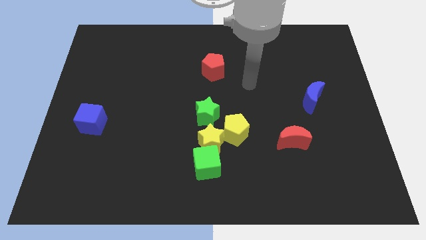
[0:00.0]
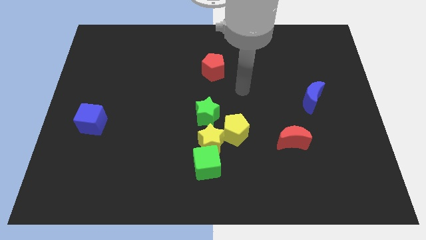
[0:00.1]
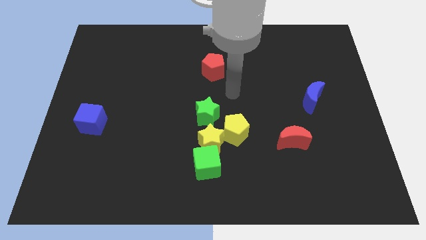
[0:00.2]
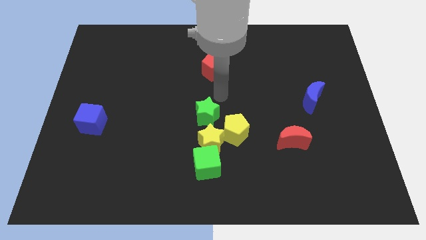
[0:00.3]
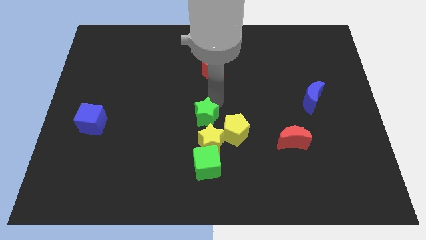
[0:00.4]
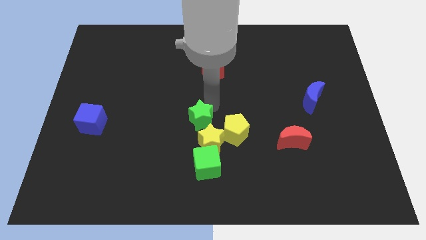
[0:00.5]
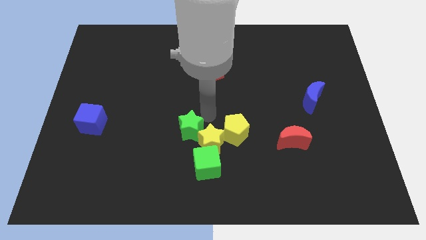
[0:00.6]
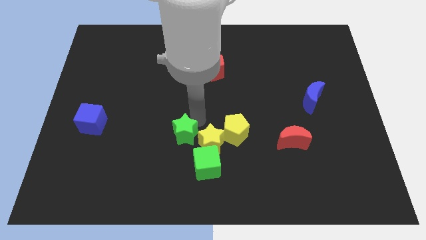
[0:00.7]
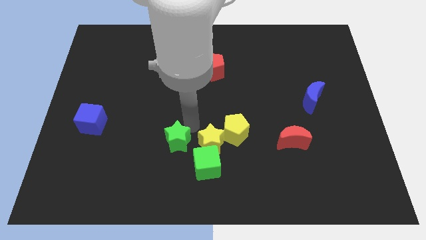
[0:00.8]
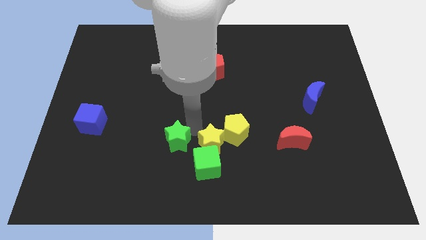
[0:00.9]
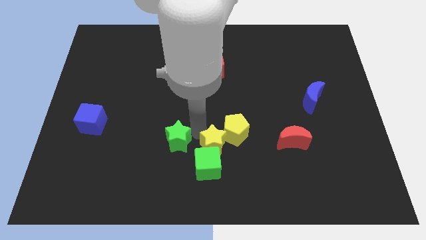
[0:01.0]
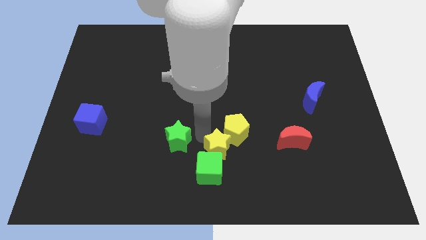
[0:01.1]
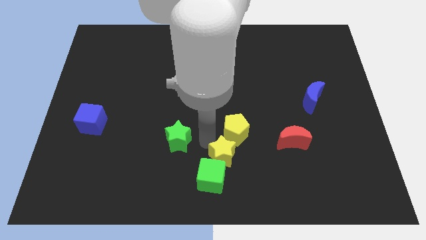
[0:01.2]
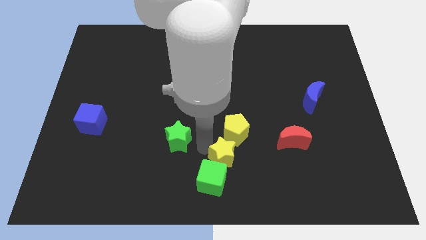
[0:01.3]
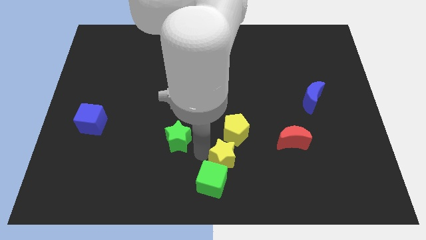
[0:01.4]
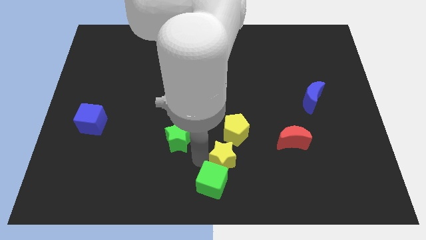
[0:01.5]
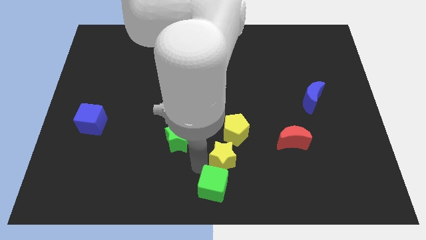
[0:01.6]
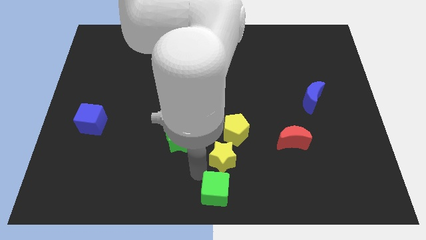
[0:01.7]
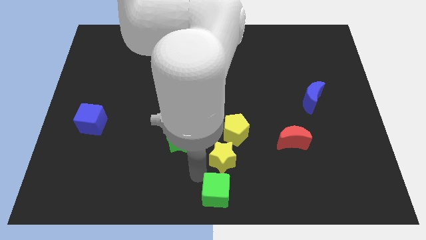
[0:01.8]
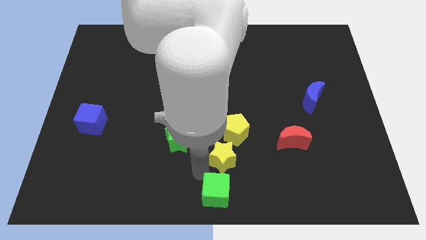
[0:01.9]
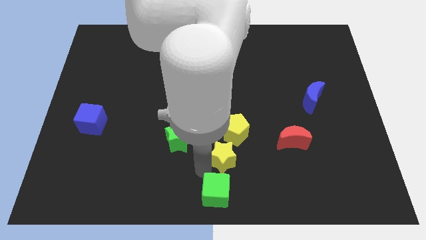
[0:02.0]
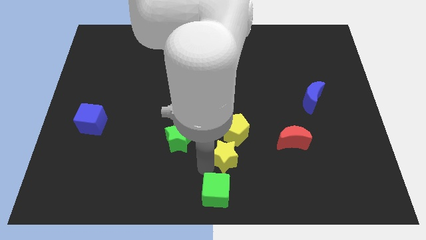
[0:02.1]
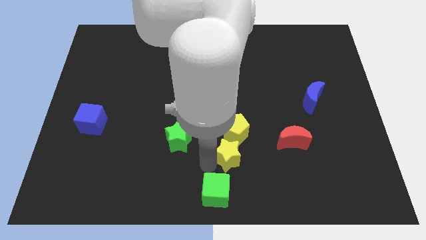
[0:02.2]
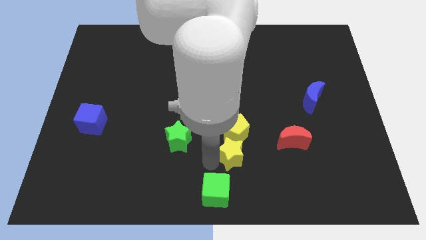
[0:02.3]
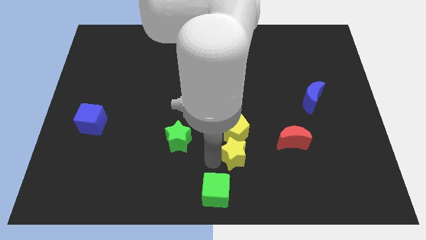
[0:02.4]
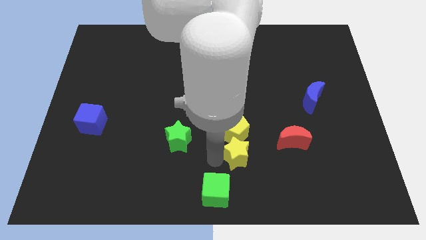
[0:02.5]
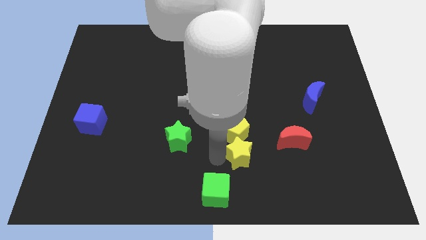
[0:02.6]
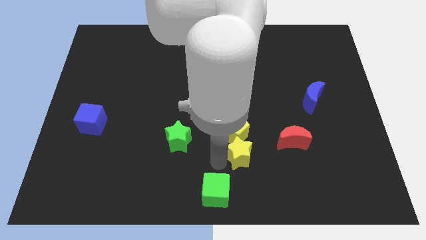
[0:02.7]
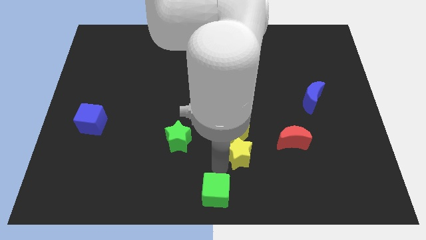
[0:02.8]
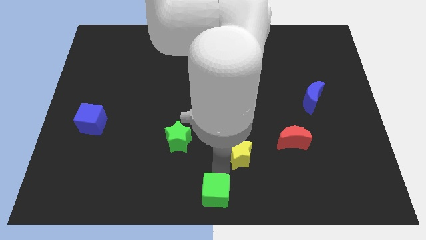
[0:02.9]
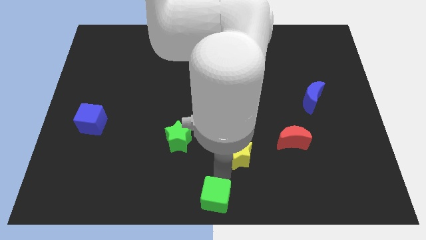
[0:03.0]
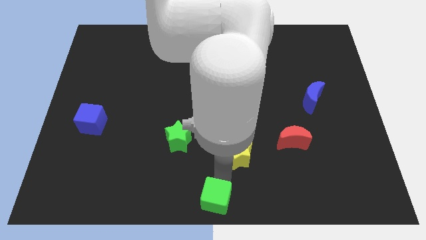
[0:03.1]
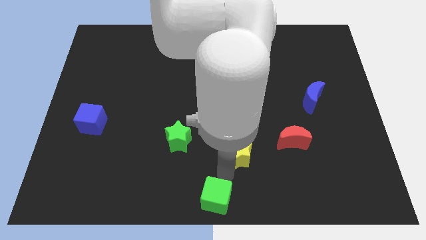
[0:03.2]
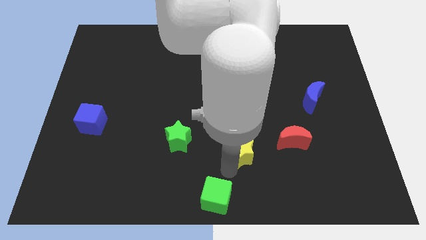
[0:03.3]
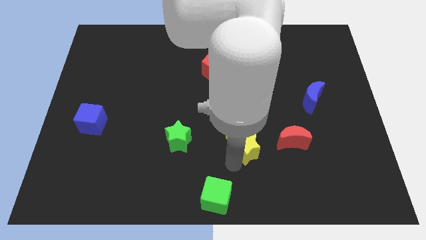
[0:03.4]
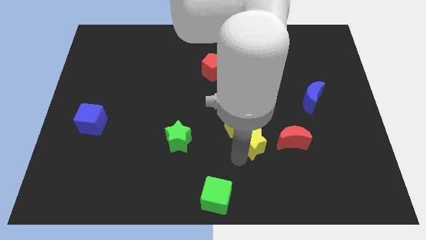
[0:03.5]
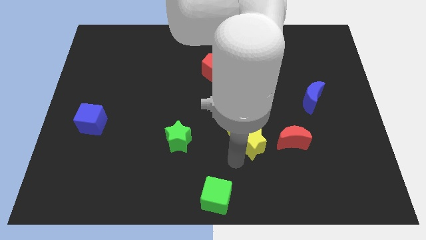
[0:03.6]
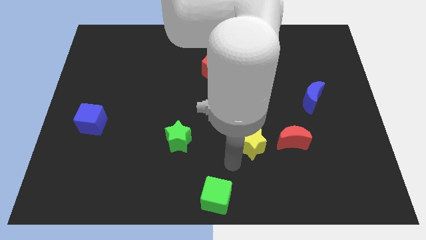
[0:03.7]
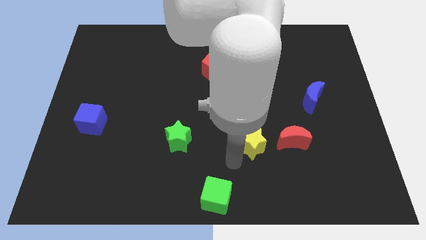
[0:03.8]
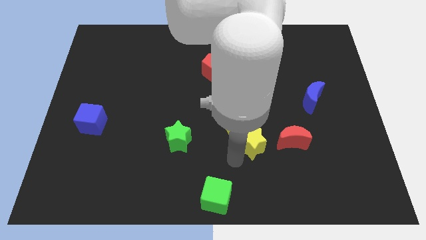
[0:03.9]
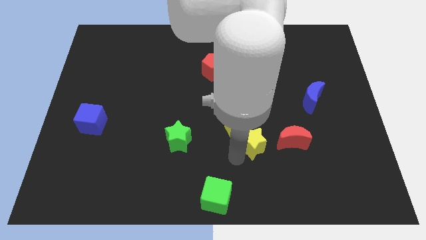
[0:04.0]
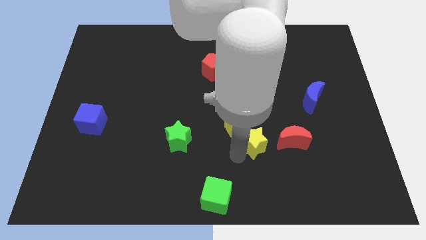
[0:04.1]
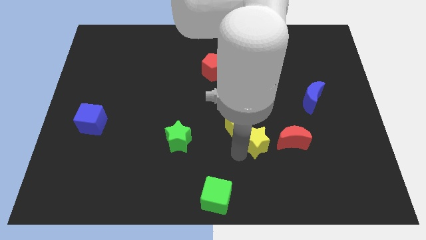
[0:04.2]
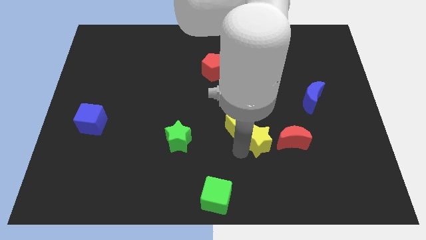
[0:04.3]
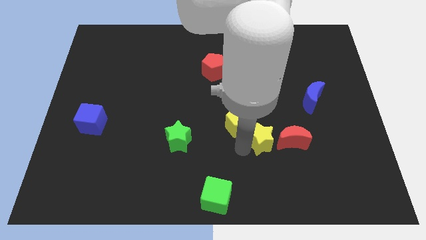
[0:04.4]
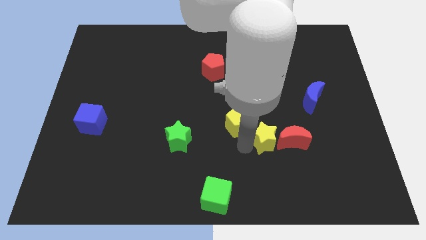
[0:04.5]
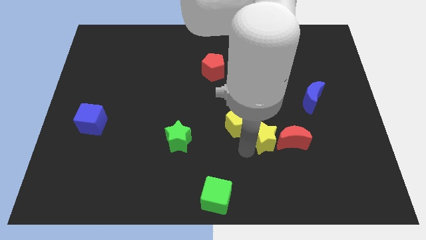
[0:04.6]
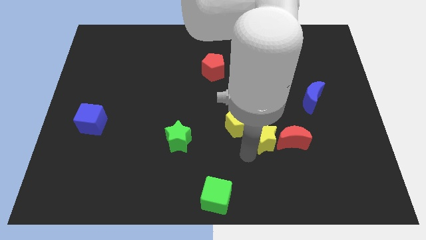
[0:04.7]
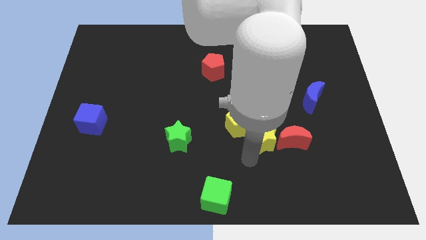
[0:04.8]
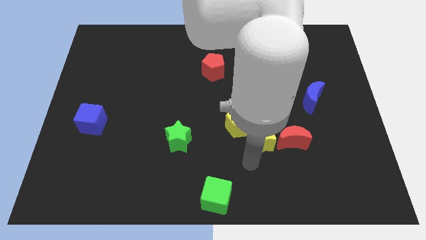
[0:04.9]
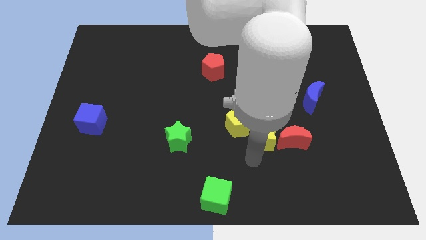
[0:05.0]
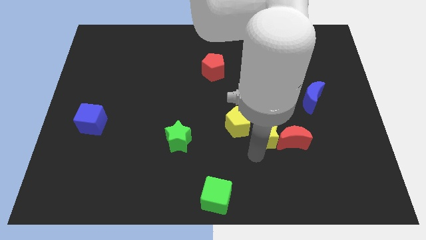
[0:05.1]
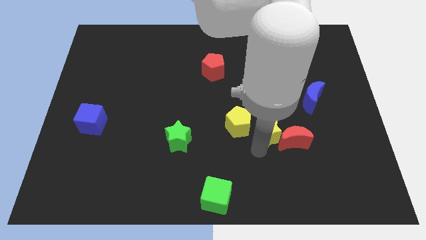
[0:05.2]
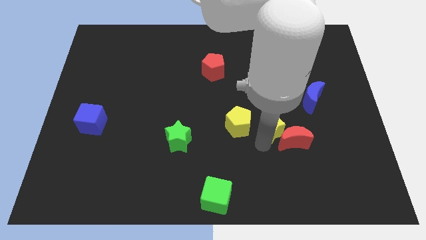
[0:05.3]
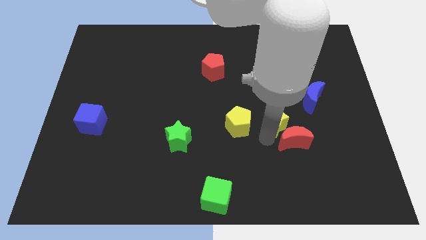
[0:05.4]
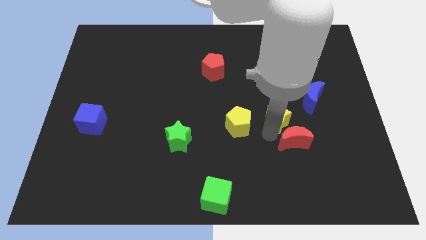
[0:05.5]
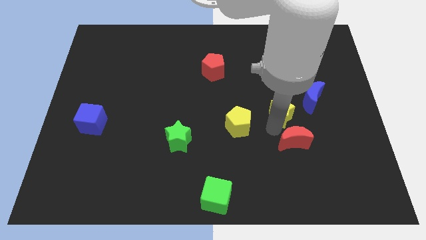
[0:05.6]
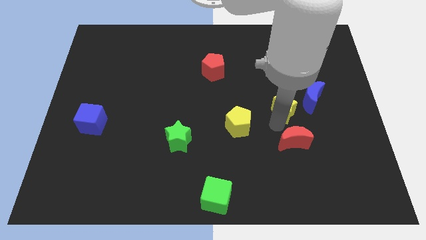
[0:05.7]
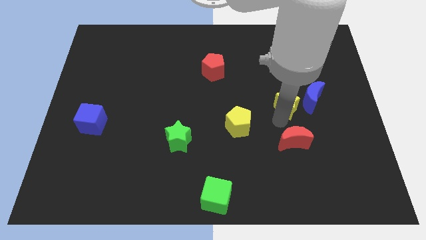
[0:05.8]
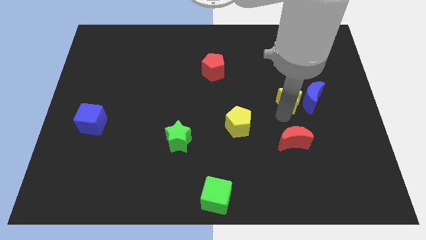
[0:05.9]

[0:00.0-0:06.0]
slide the yellow star to the top left of the blue moon

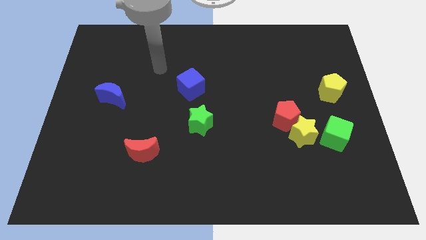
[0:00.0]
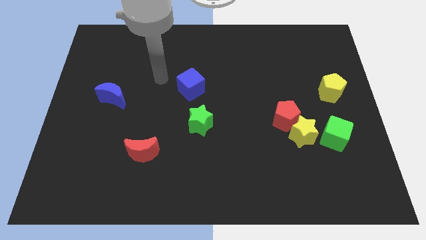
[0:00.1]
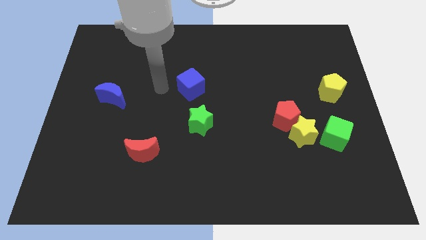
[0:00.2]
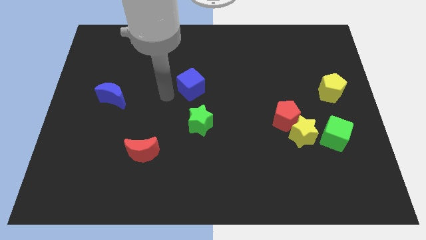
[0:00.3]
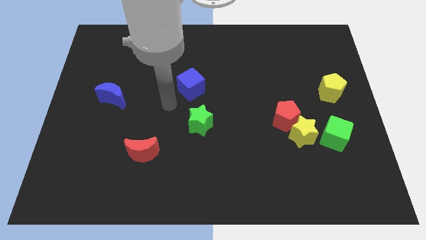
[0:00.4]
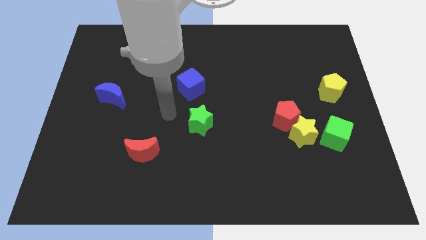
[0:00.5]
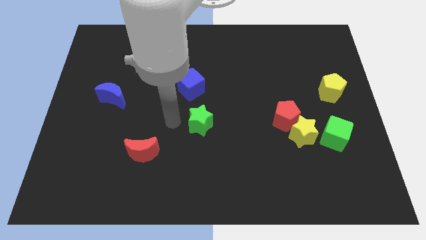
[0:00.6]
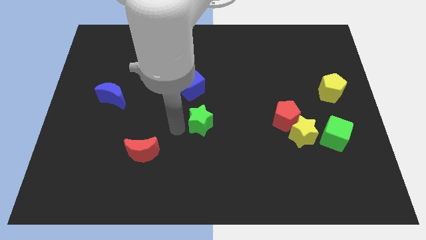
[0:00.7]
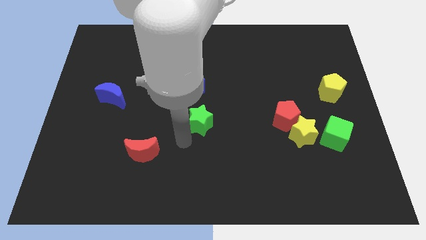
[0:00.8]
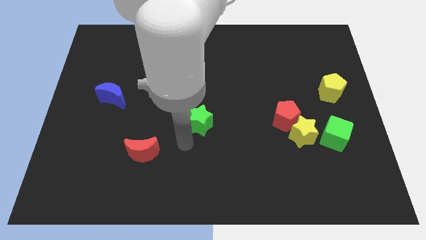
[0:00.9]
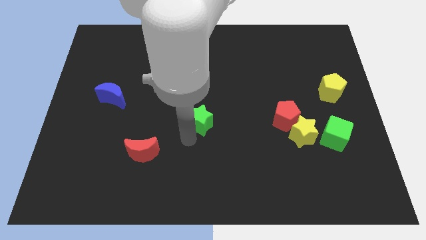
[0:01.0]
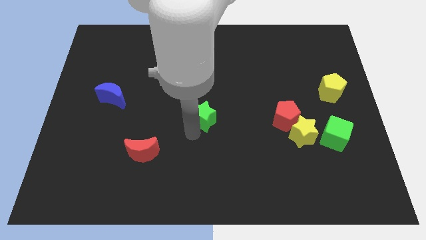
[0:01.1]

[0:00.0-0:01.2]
put the green star to the bottom right of the blue cube
